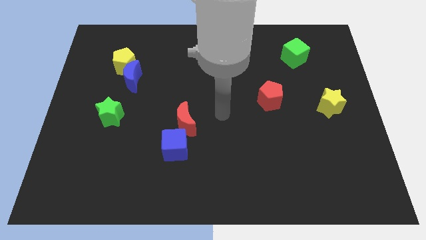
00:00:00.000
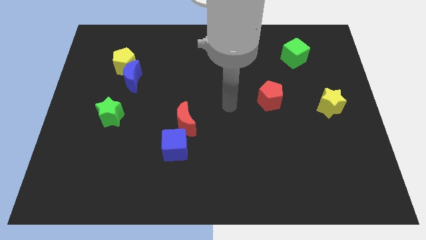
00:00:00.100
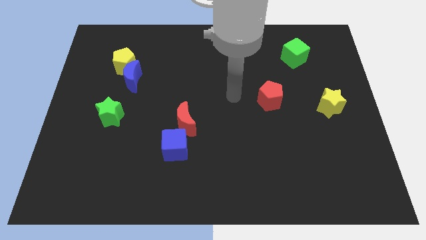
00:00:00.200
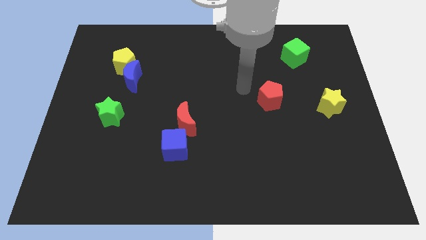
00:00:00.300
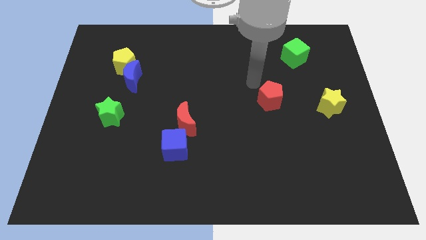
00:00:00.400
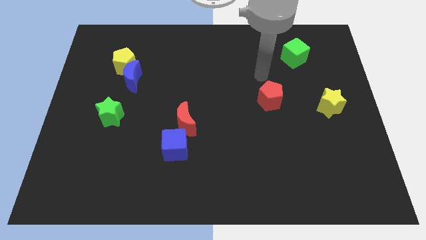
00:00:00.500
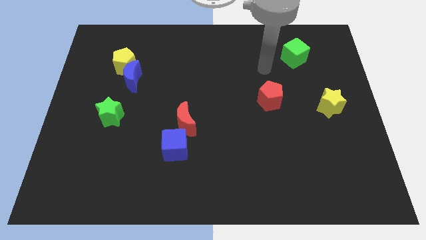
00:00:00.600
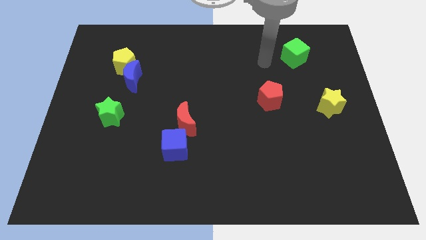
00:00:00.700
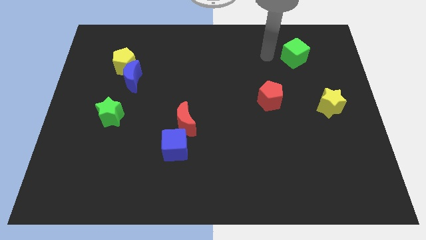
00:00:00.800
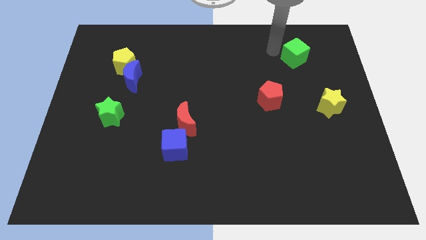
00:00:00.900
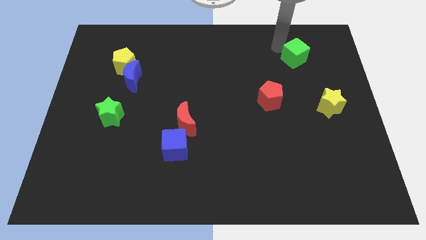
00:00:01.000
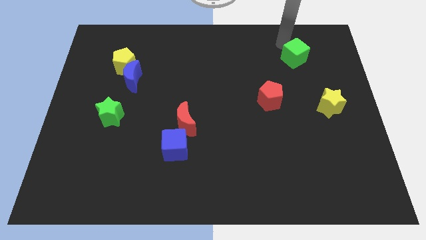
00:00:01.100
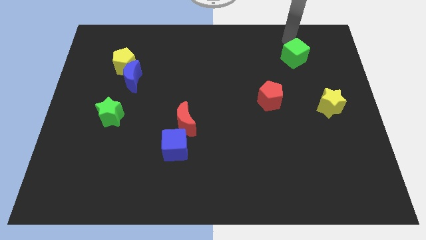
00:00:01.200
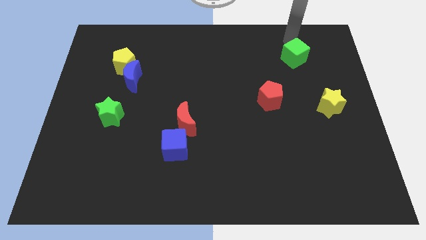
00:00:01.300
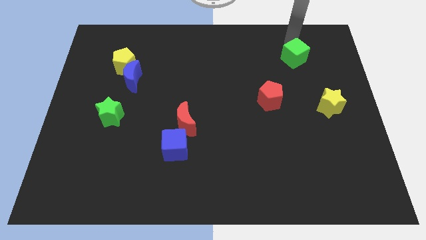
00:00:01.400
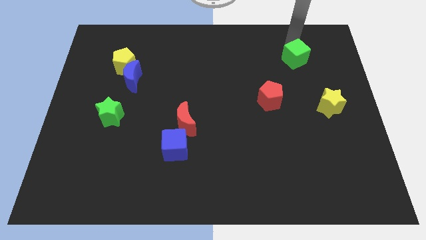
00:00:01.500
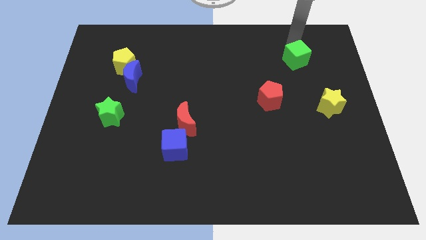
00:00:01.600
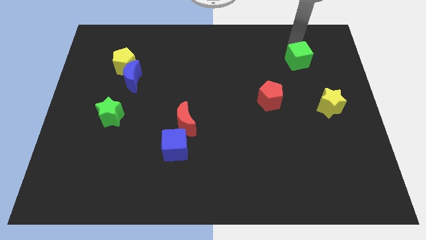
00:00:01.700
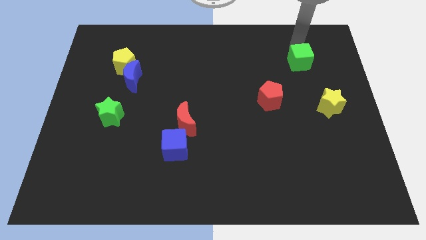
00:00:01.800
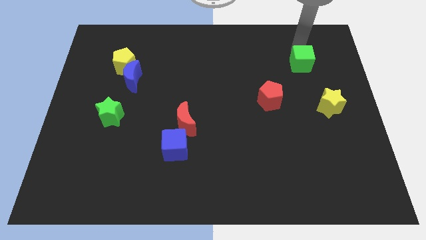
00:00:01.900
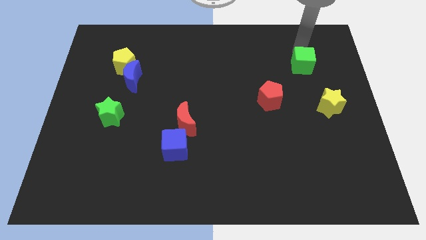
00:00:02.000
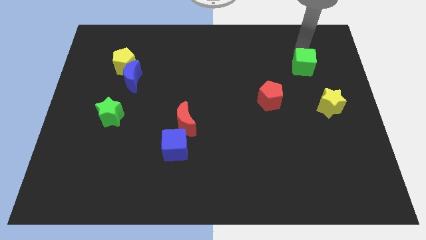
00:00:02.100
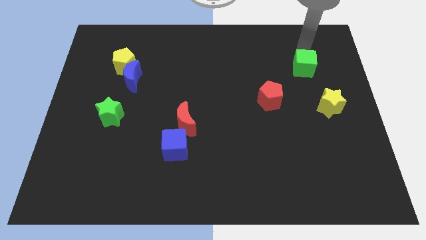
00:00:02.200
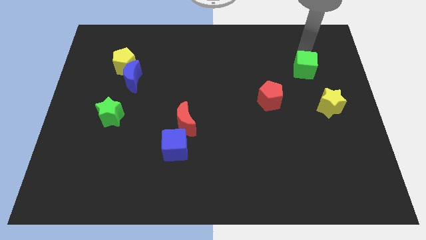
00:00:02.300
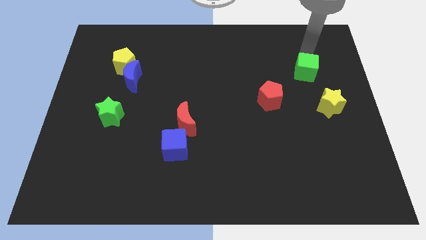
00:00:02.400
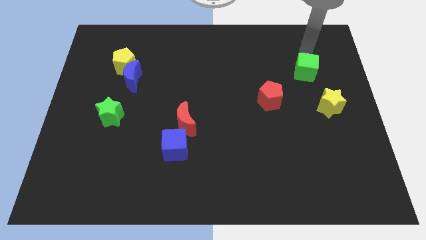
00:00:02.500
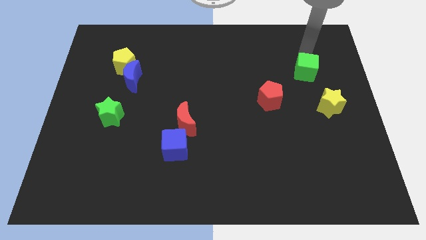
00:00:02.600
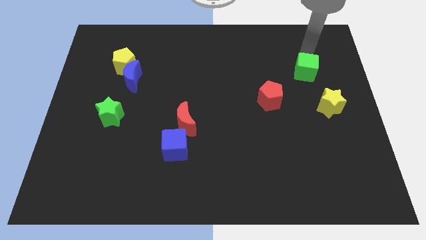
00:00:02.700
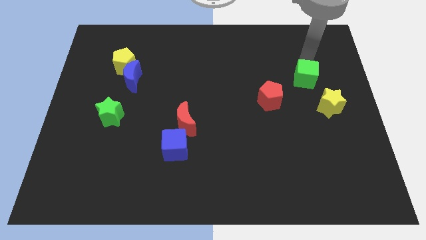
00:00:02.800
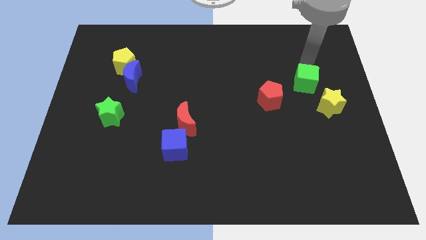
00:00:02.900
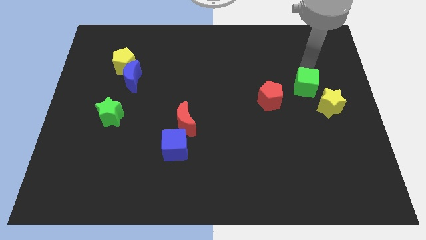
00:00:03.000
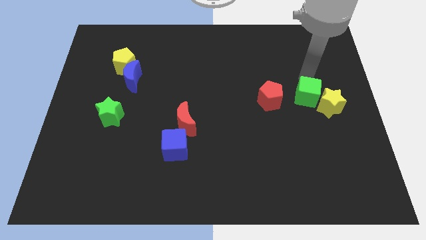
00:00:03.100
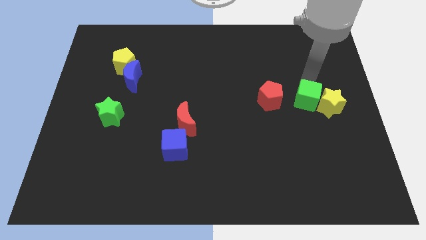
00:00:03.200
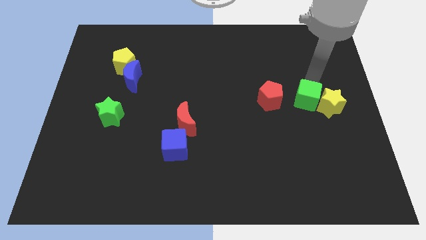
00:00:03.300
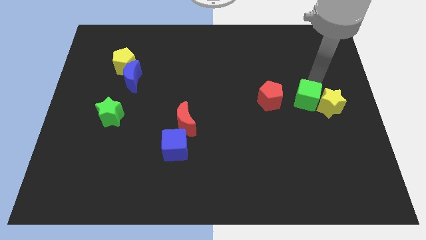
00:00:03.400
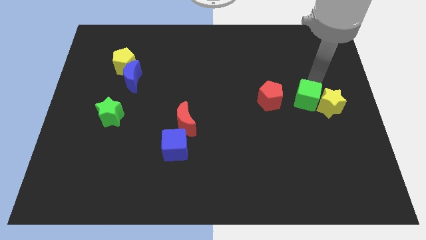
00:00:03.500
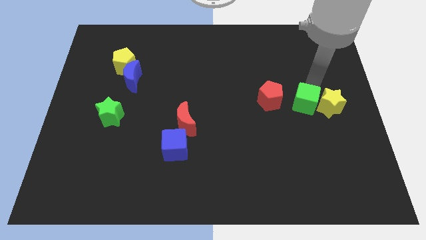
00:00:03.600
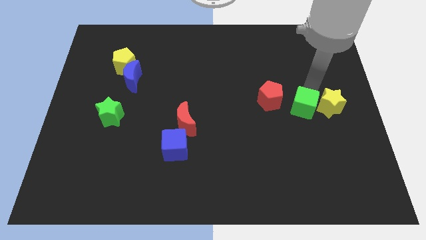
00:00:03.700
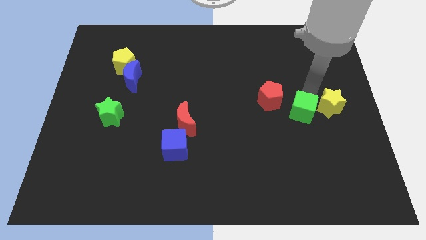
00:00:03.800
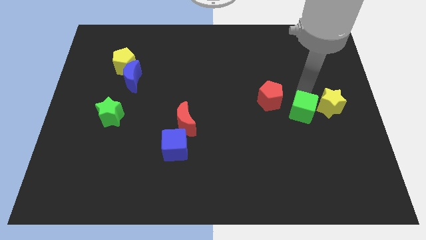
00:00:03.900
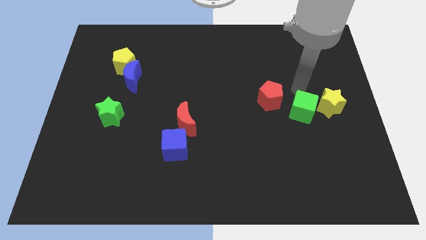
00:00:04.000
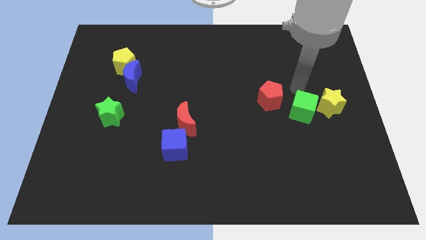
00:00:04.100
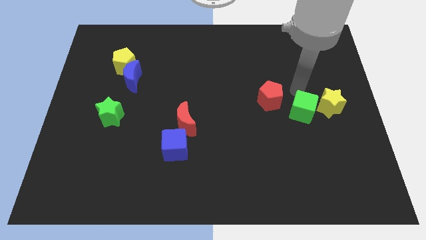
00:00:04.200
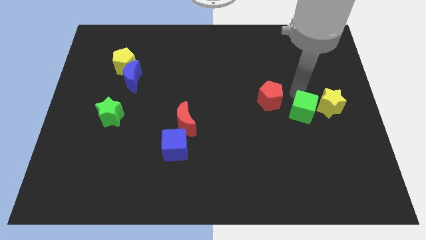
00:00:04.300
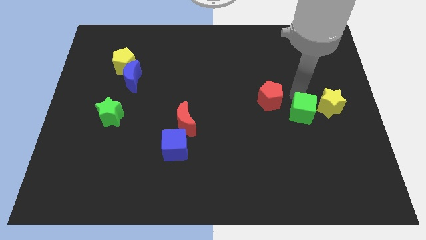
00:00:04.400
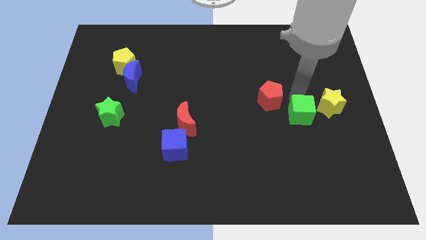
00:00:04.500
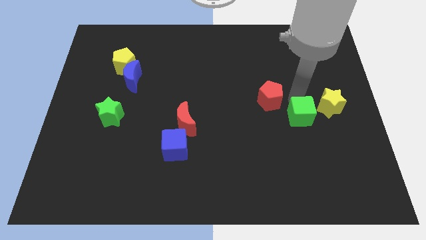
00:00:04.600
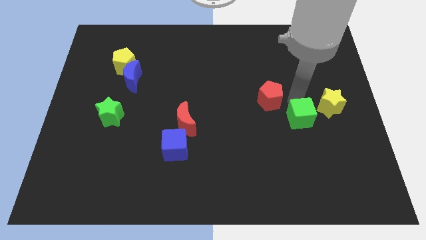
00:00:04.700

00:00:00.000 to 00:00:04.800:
push the green cube down

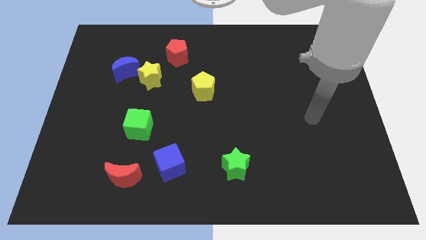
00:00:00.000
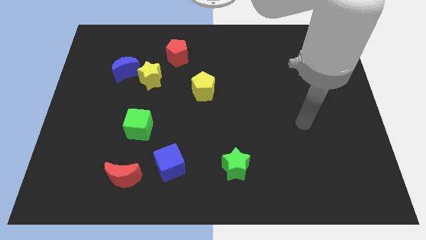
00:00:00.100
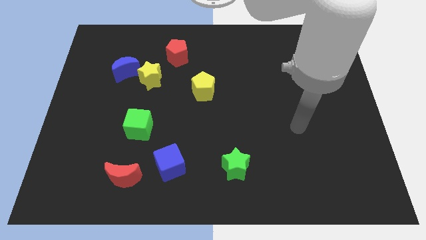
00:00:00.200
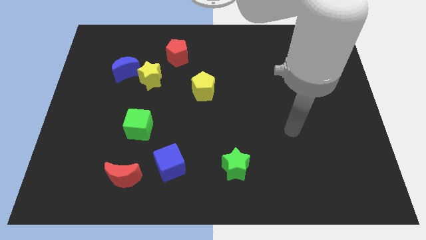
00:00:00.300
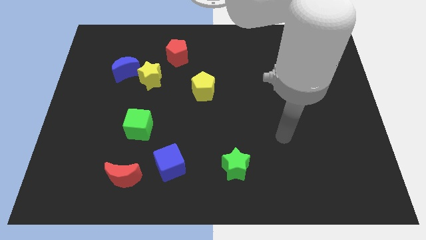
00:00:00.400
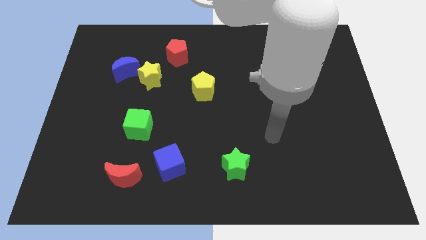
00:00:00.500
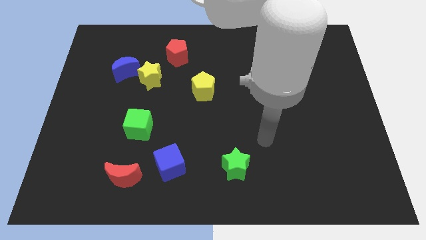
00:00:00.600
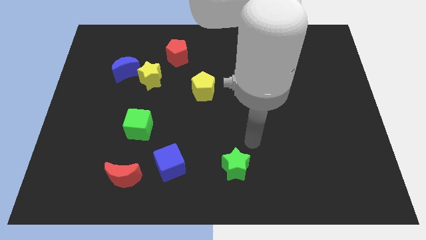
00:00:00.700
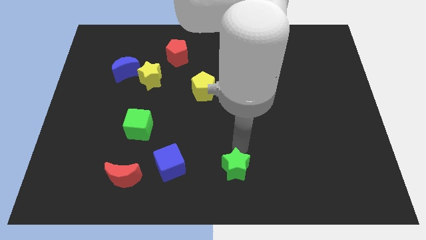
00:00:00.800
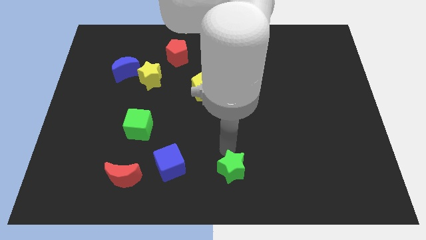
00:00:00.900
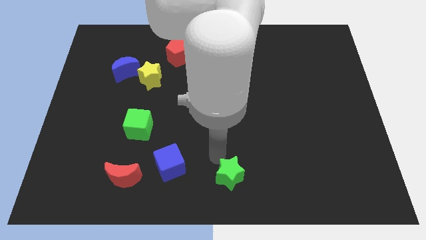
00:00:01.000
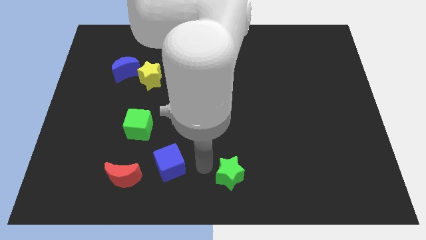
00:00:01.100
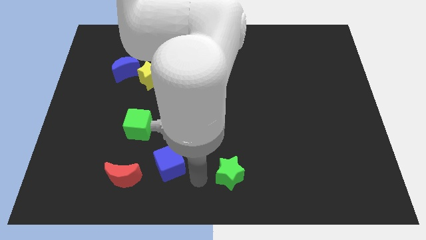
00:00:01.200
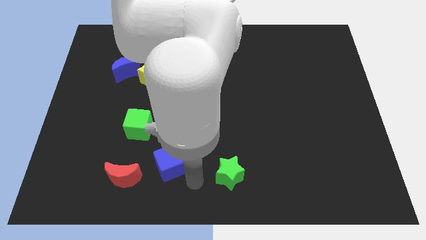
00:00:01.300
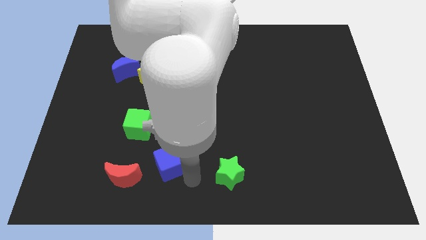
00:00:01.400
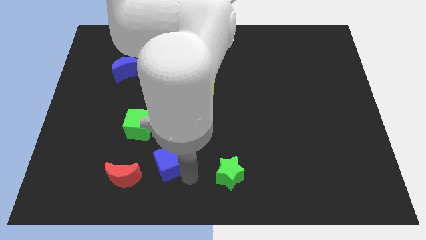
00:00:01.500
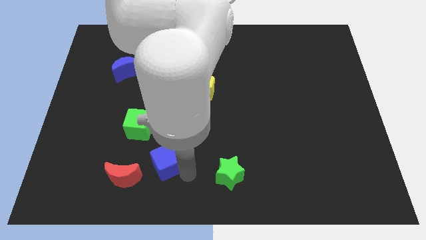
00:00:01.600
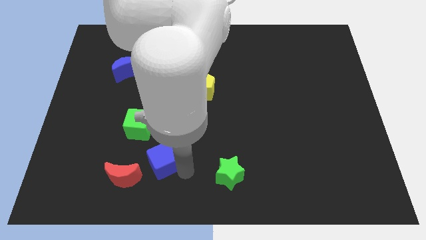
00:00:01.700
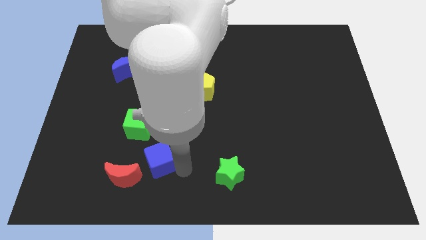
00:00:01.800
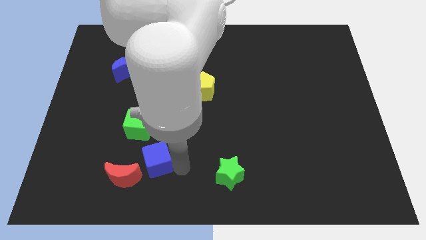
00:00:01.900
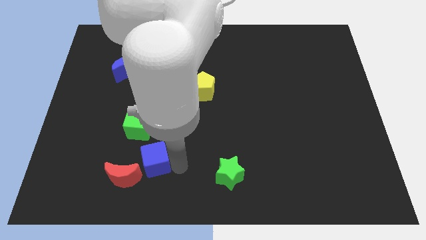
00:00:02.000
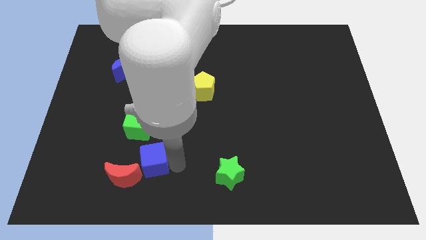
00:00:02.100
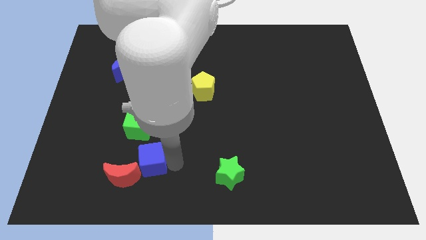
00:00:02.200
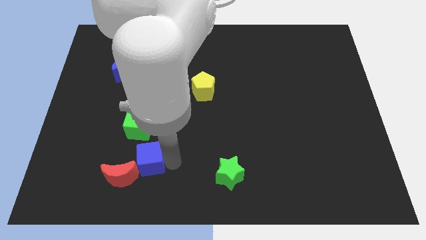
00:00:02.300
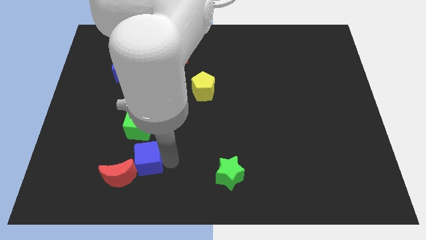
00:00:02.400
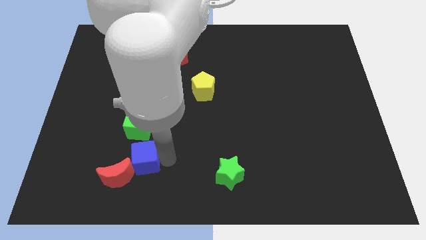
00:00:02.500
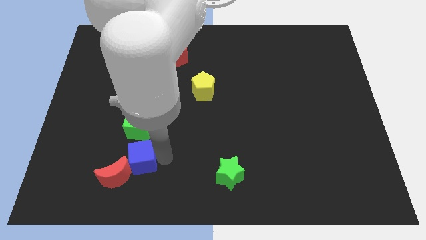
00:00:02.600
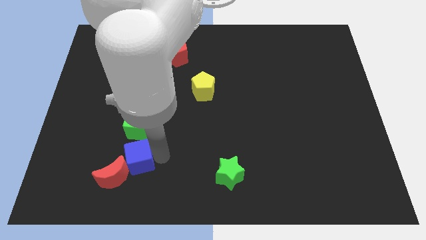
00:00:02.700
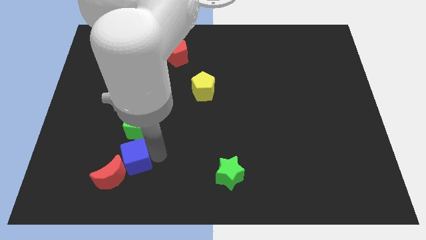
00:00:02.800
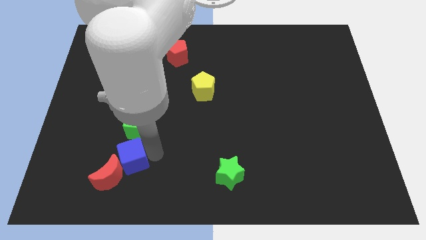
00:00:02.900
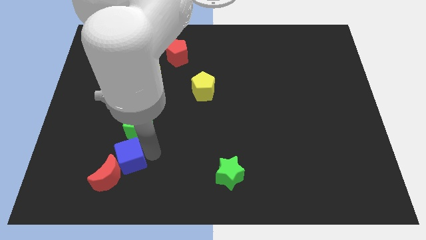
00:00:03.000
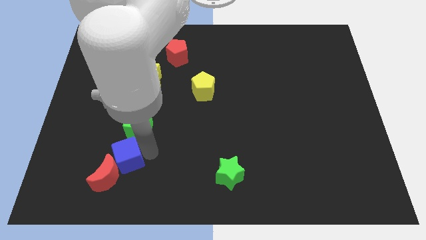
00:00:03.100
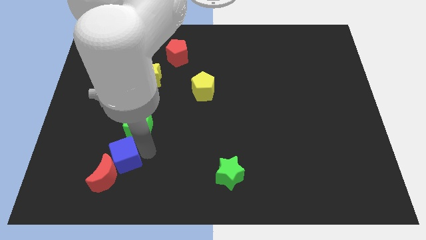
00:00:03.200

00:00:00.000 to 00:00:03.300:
slightly move the blue cube up and to the left

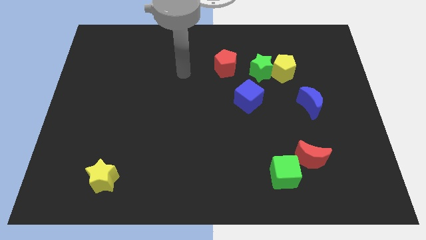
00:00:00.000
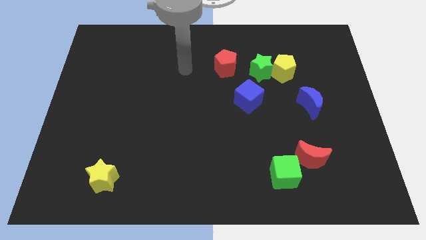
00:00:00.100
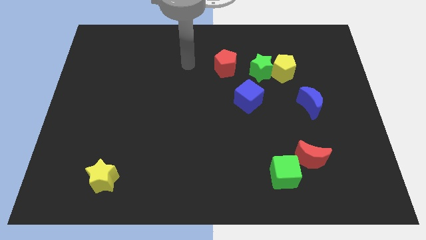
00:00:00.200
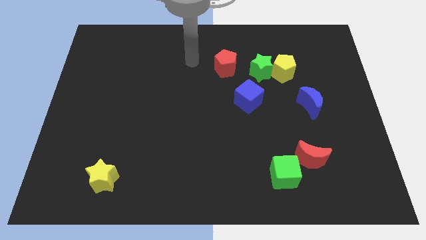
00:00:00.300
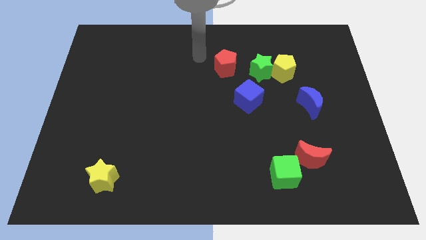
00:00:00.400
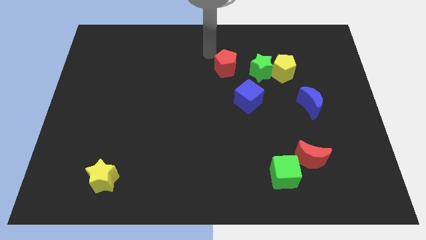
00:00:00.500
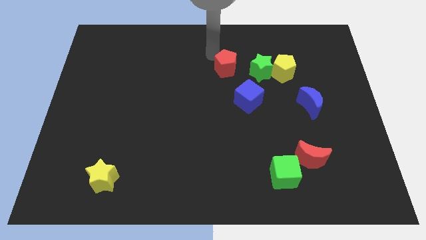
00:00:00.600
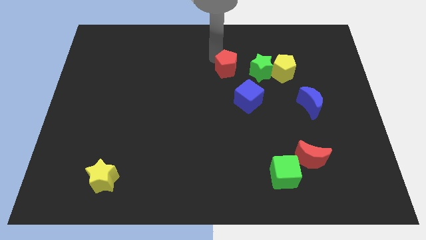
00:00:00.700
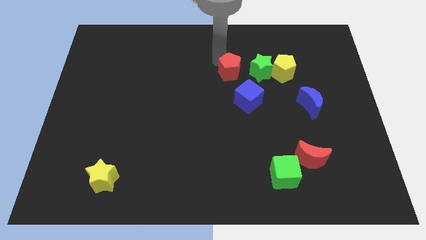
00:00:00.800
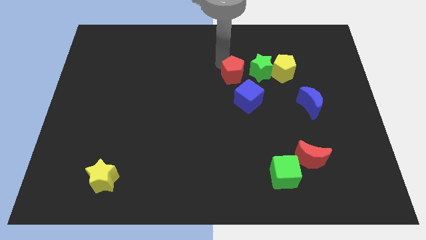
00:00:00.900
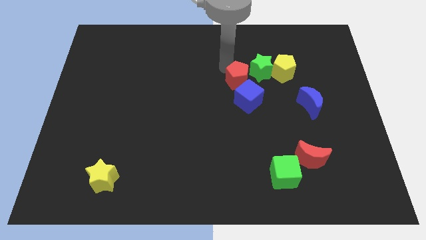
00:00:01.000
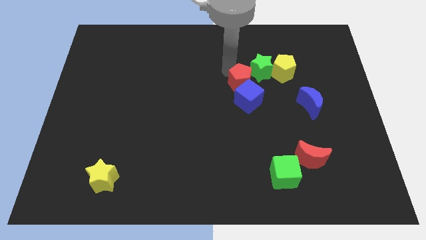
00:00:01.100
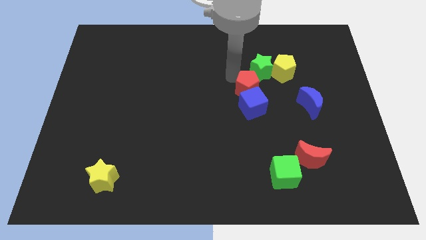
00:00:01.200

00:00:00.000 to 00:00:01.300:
push the red pentagon downwards and right diagonally a little
